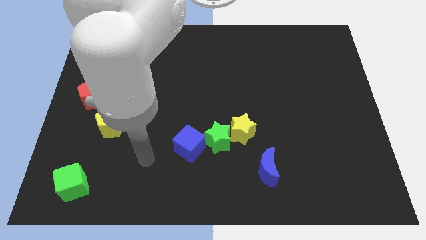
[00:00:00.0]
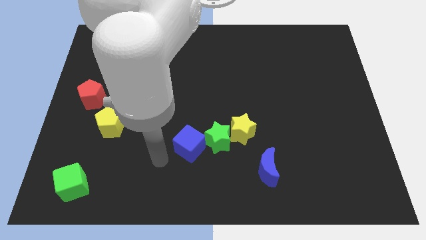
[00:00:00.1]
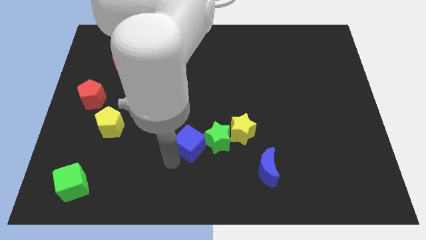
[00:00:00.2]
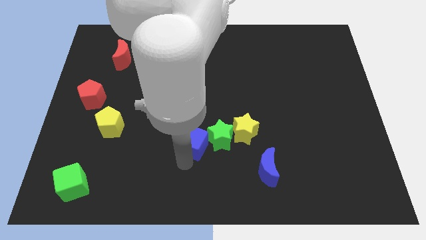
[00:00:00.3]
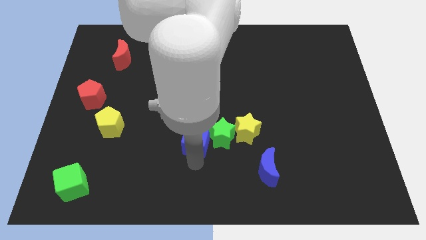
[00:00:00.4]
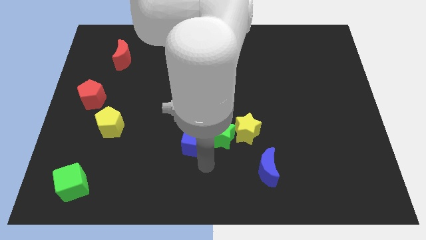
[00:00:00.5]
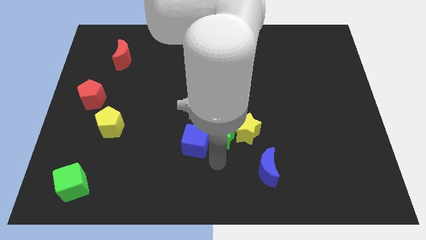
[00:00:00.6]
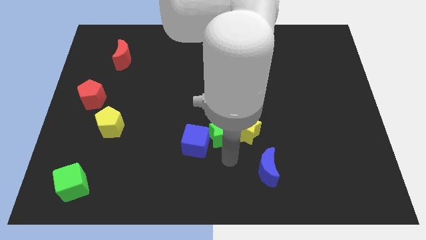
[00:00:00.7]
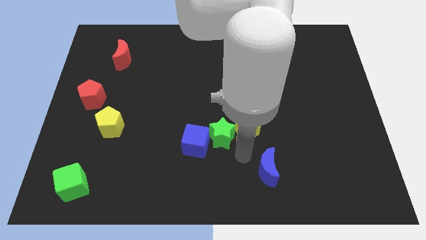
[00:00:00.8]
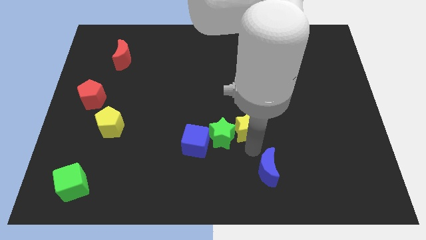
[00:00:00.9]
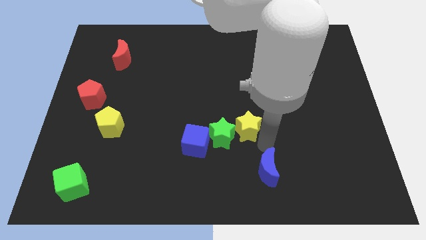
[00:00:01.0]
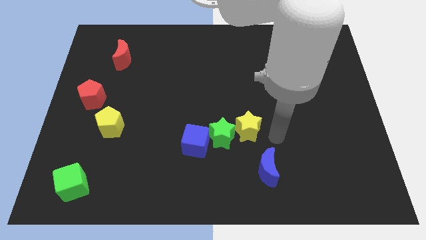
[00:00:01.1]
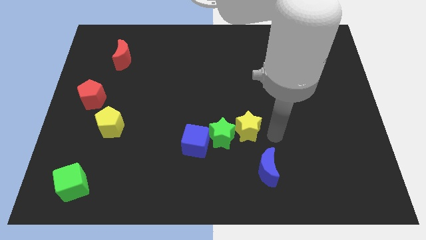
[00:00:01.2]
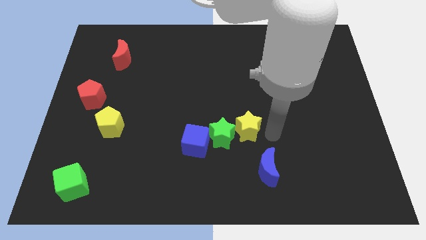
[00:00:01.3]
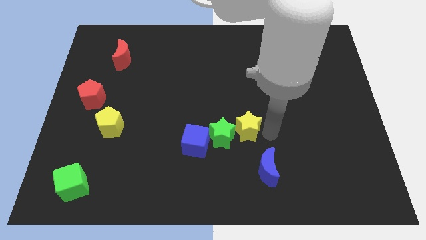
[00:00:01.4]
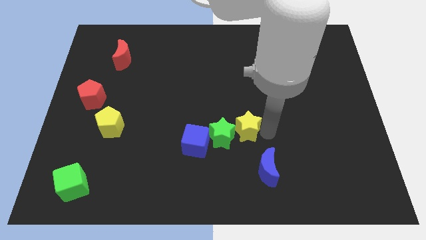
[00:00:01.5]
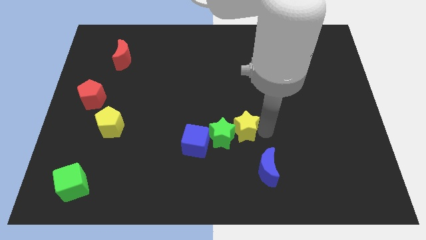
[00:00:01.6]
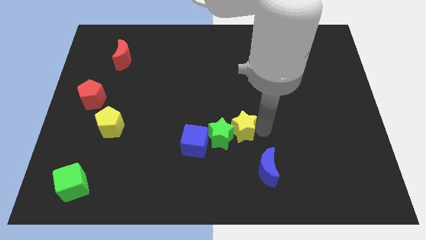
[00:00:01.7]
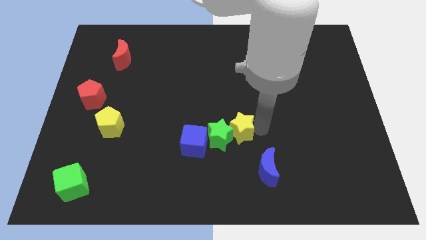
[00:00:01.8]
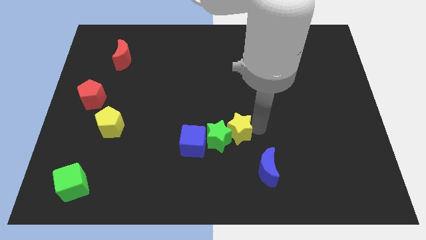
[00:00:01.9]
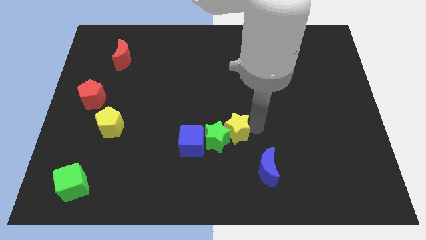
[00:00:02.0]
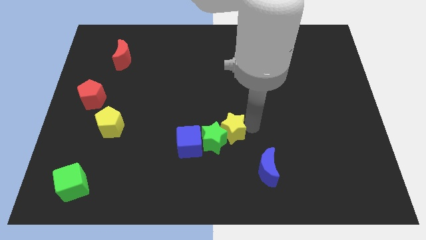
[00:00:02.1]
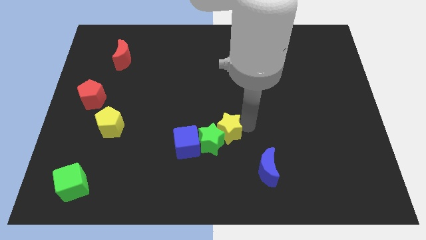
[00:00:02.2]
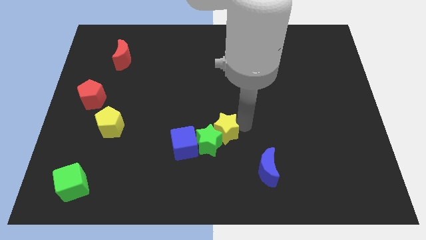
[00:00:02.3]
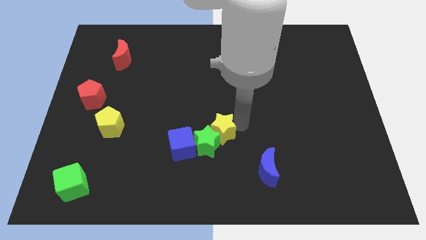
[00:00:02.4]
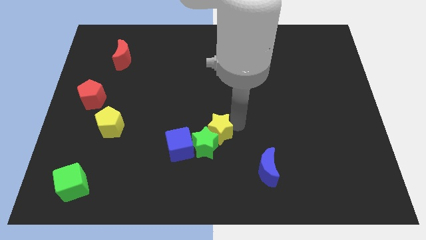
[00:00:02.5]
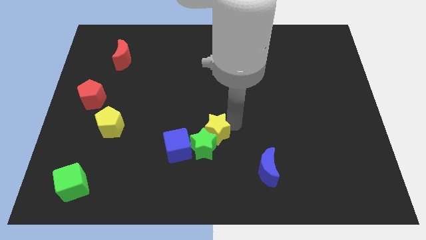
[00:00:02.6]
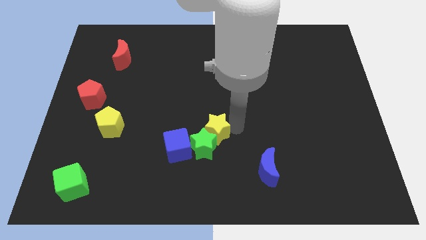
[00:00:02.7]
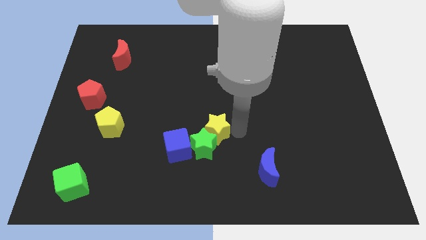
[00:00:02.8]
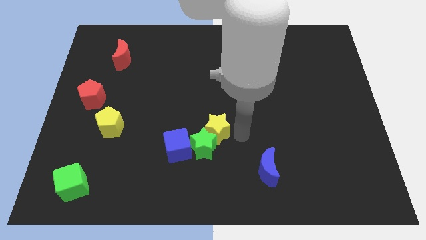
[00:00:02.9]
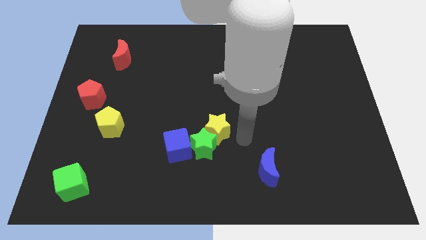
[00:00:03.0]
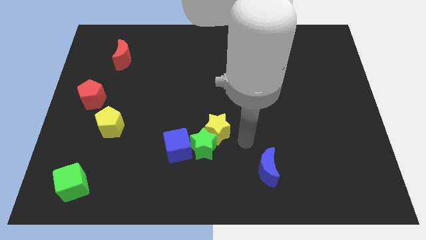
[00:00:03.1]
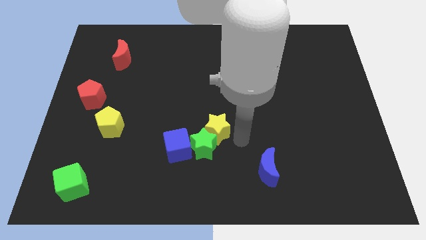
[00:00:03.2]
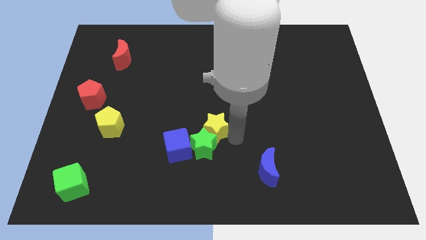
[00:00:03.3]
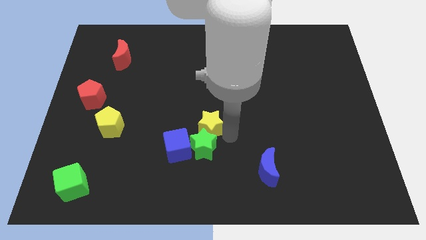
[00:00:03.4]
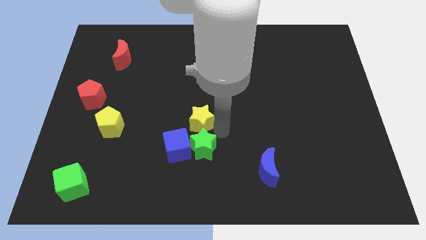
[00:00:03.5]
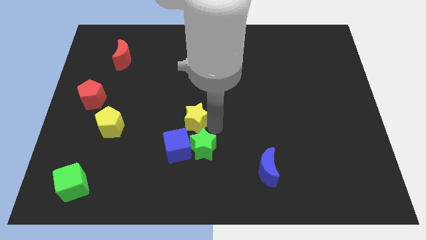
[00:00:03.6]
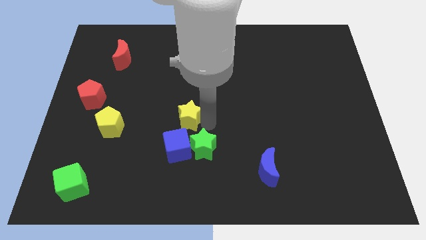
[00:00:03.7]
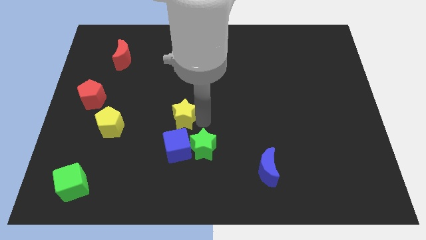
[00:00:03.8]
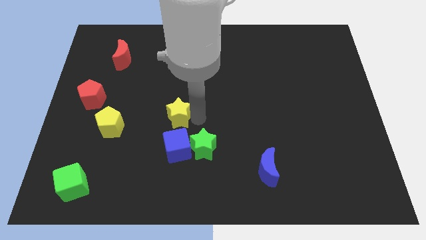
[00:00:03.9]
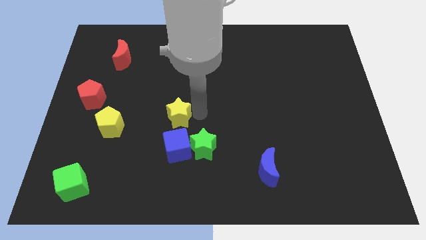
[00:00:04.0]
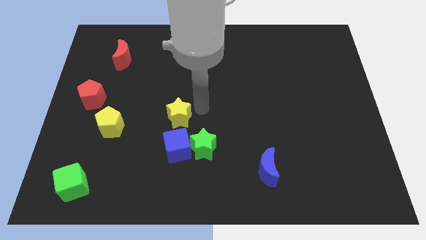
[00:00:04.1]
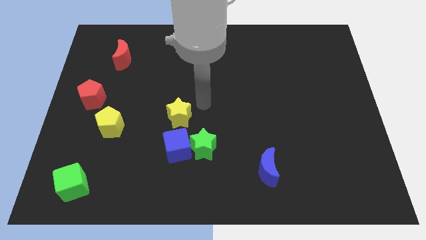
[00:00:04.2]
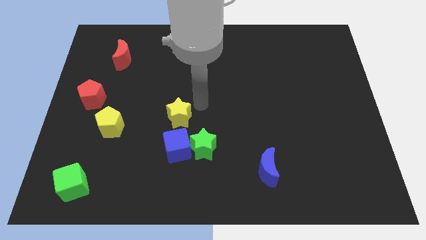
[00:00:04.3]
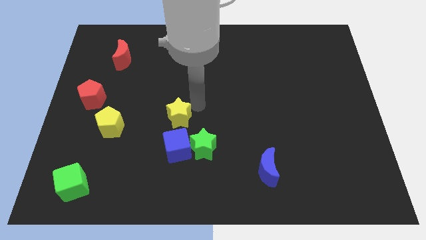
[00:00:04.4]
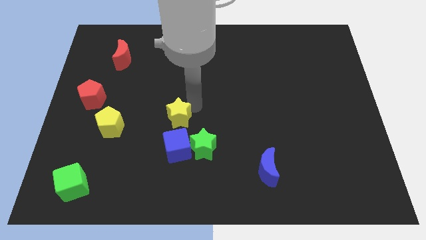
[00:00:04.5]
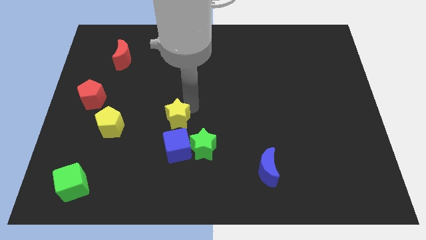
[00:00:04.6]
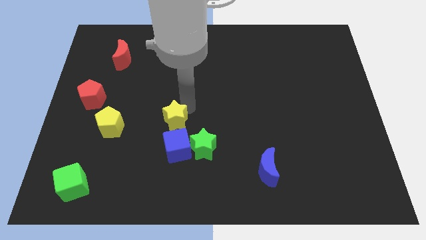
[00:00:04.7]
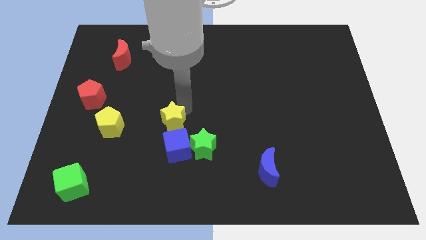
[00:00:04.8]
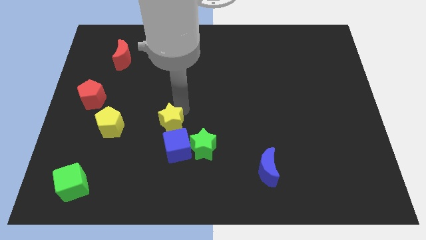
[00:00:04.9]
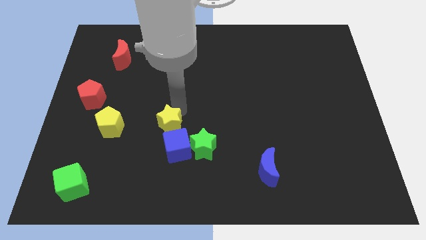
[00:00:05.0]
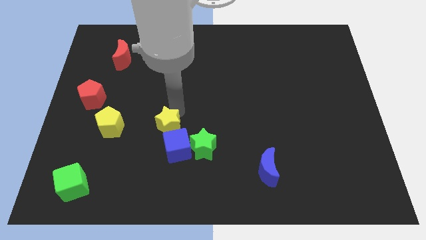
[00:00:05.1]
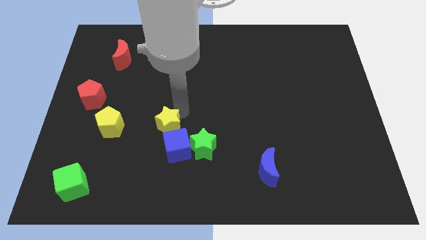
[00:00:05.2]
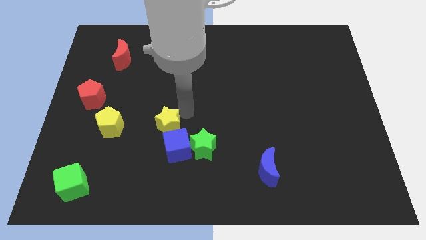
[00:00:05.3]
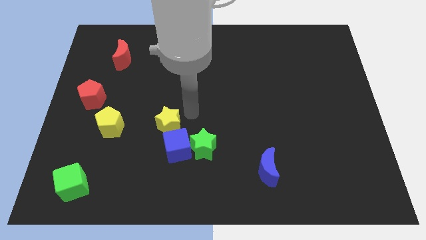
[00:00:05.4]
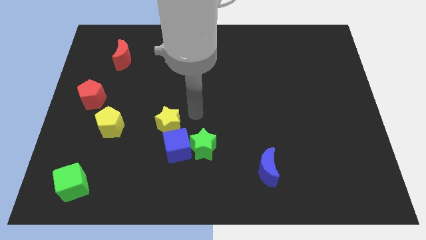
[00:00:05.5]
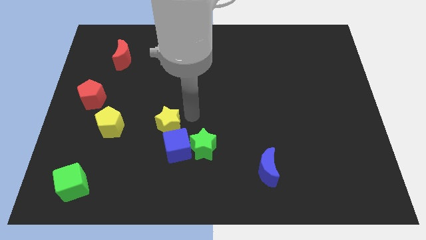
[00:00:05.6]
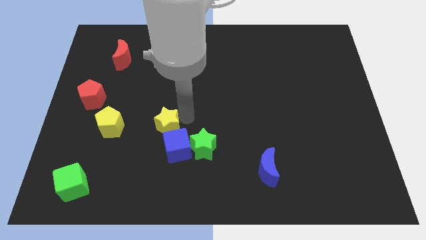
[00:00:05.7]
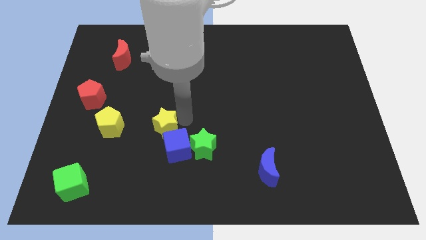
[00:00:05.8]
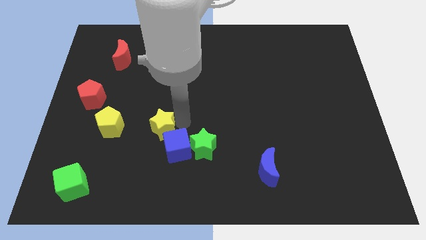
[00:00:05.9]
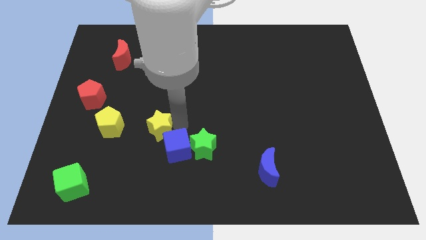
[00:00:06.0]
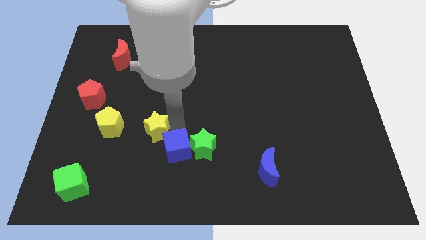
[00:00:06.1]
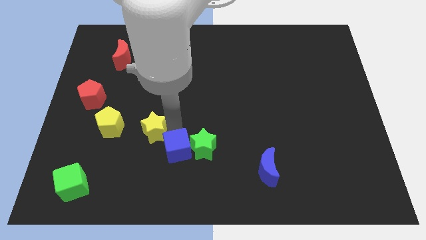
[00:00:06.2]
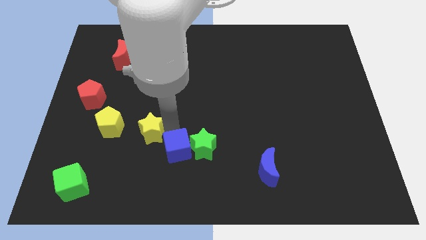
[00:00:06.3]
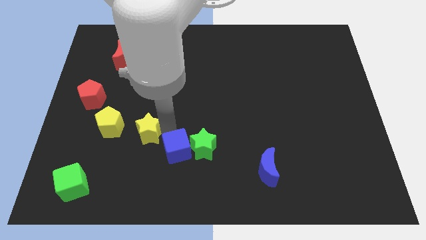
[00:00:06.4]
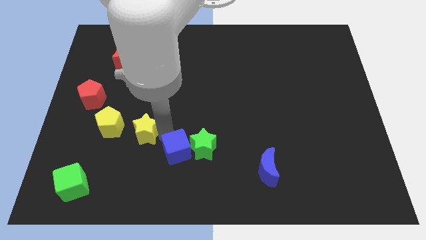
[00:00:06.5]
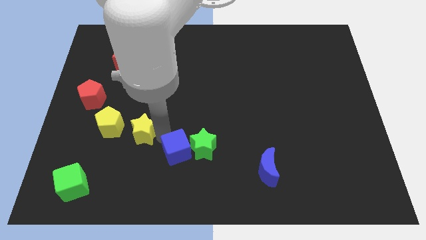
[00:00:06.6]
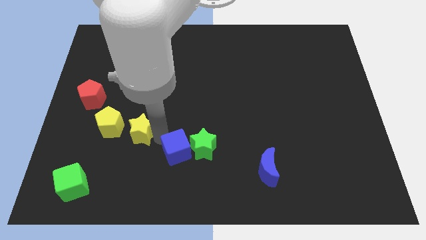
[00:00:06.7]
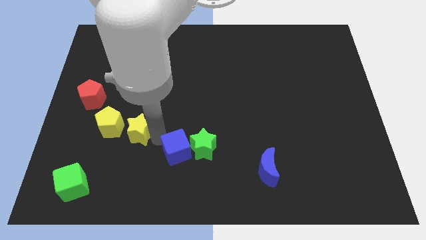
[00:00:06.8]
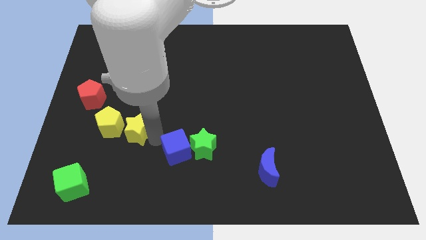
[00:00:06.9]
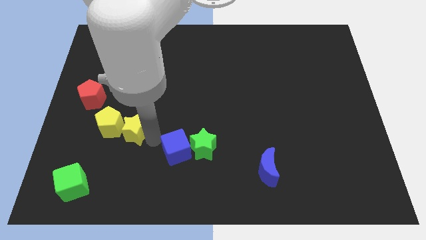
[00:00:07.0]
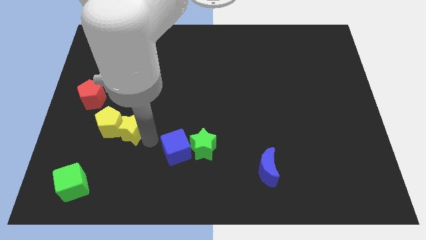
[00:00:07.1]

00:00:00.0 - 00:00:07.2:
slide the yellow star close to the yellow pentagon
